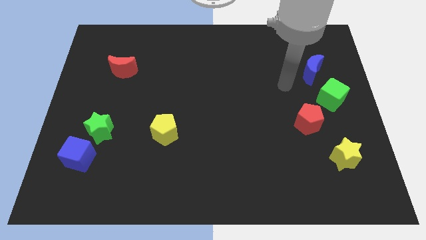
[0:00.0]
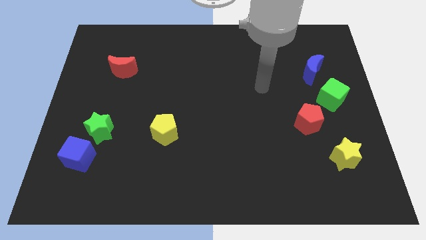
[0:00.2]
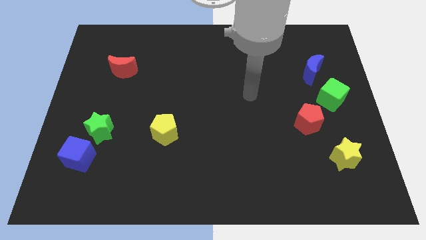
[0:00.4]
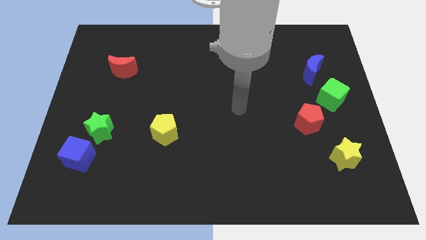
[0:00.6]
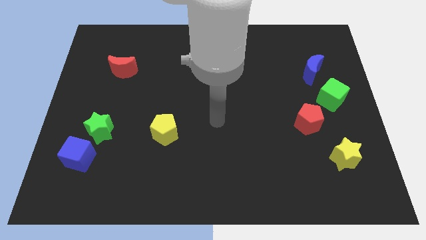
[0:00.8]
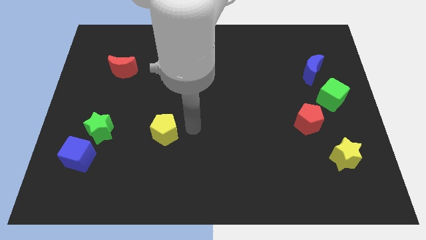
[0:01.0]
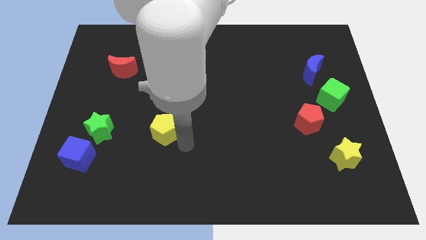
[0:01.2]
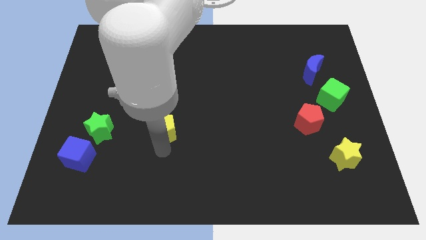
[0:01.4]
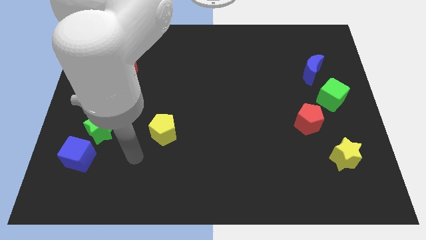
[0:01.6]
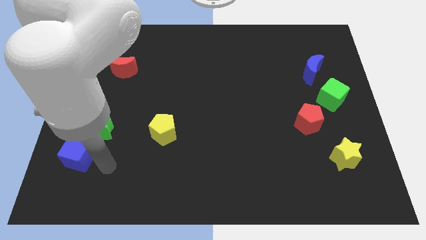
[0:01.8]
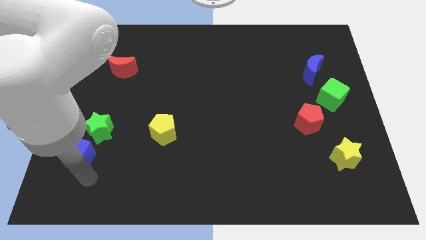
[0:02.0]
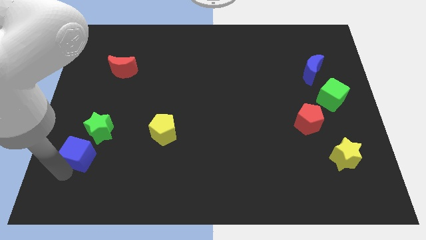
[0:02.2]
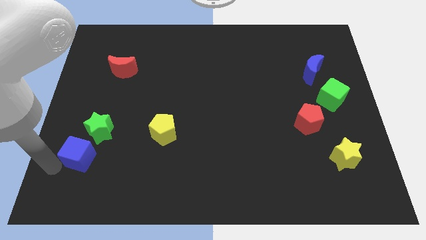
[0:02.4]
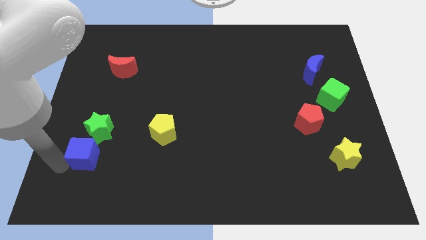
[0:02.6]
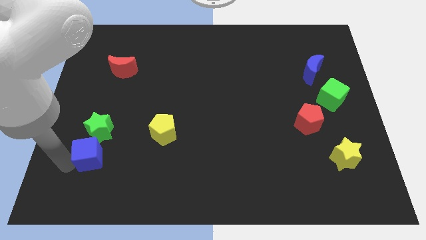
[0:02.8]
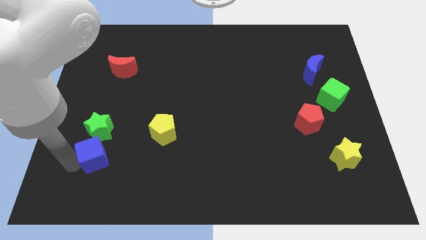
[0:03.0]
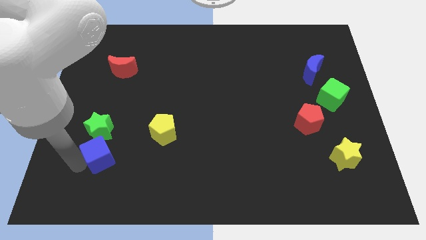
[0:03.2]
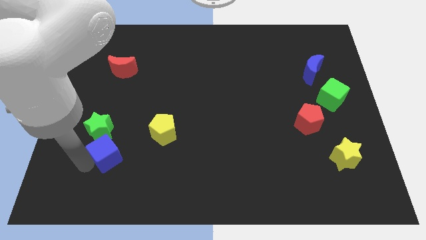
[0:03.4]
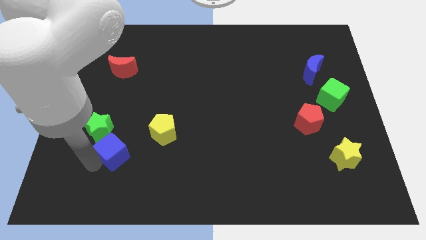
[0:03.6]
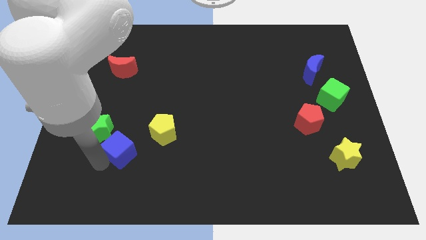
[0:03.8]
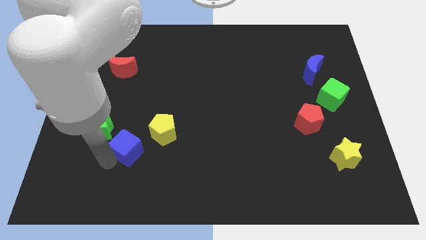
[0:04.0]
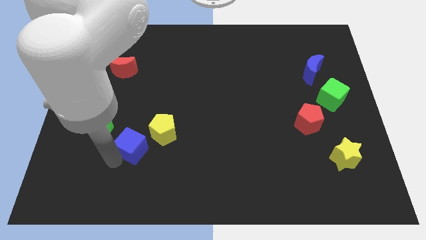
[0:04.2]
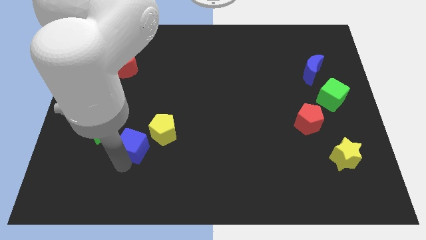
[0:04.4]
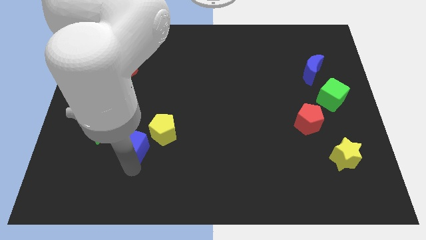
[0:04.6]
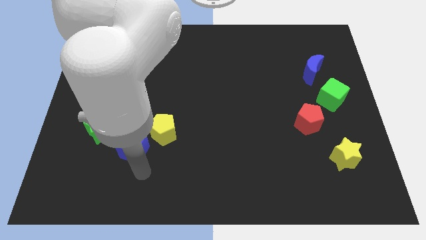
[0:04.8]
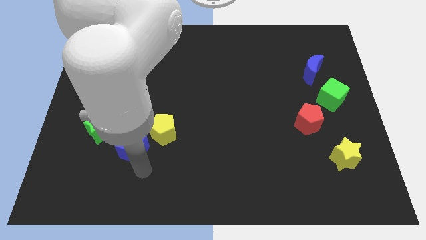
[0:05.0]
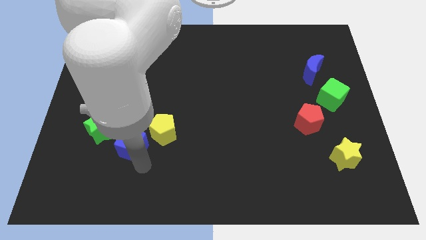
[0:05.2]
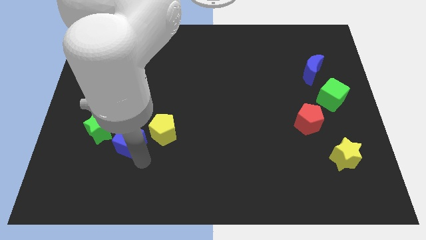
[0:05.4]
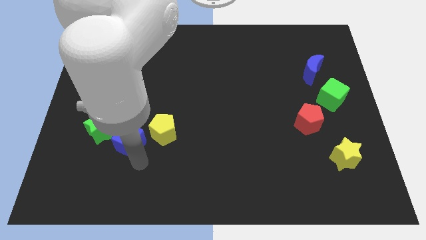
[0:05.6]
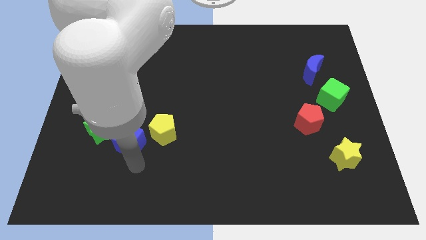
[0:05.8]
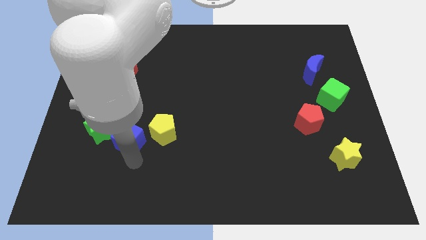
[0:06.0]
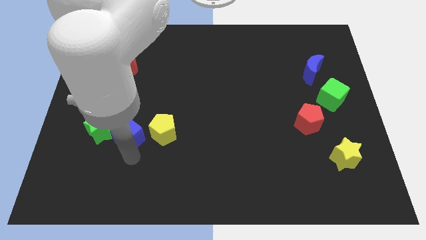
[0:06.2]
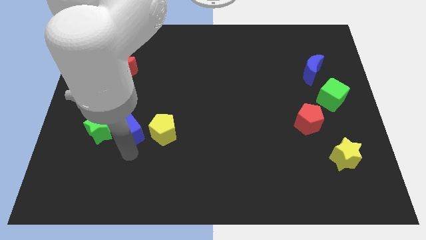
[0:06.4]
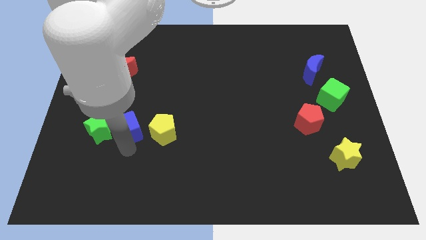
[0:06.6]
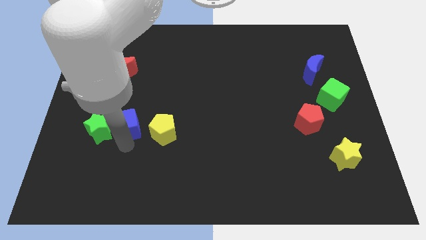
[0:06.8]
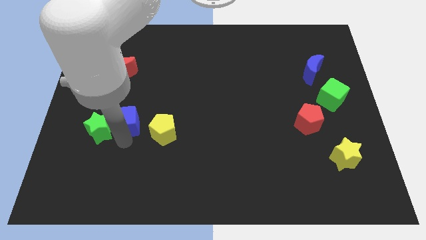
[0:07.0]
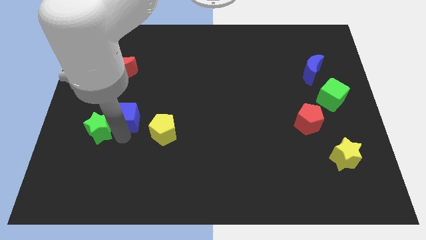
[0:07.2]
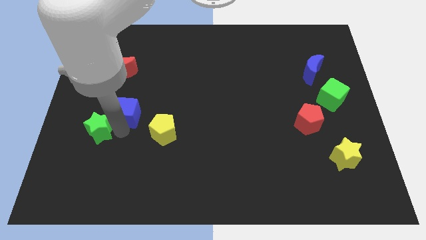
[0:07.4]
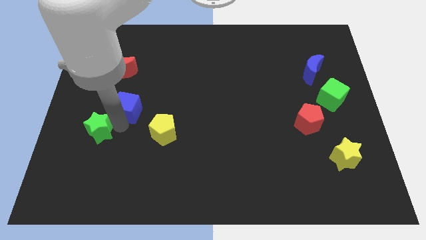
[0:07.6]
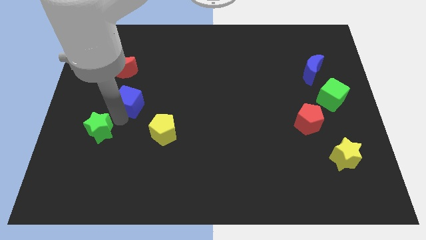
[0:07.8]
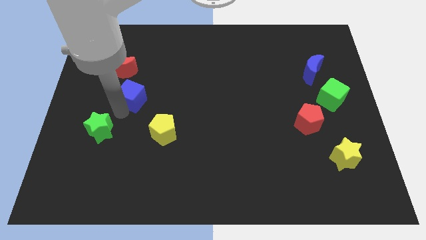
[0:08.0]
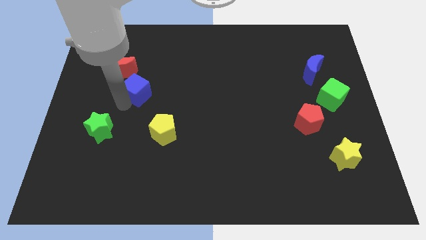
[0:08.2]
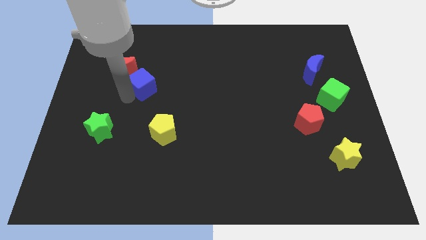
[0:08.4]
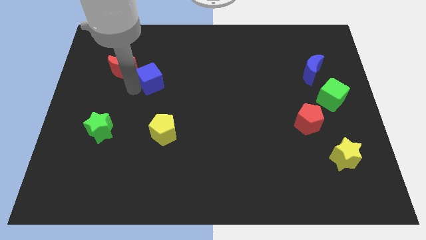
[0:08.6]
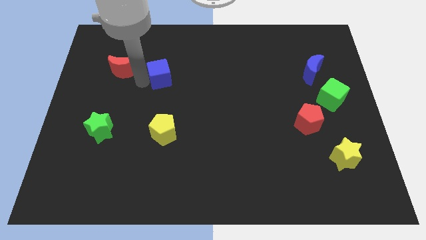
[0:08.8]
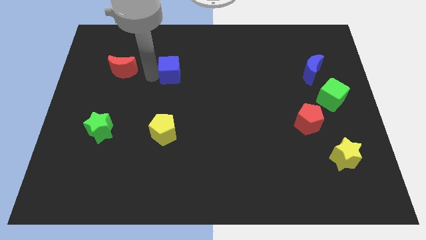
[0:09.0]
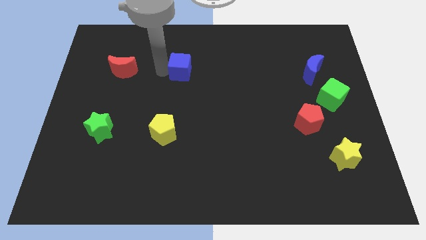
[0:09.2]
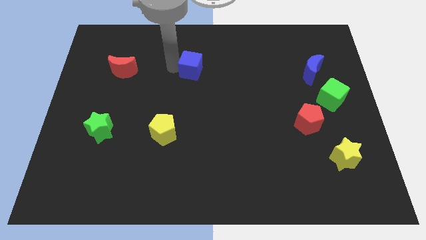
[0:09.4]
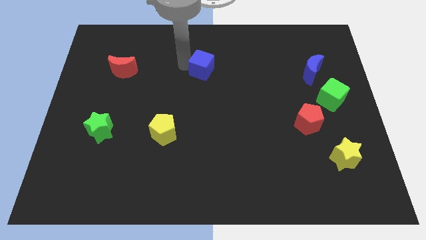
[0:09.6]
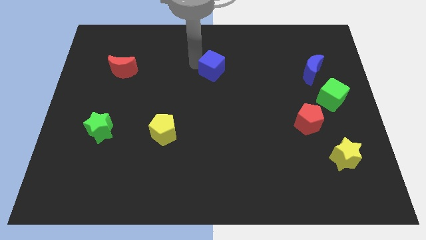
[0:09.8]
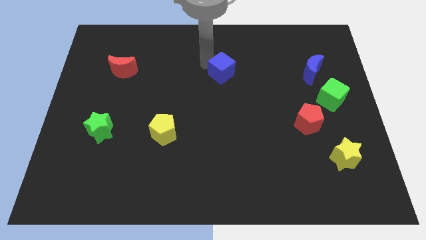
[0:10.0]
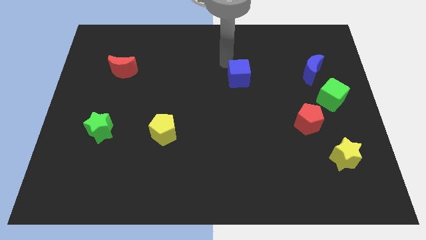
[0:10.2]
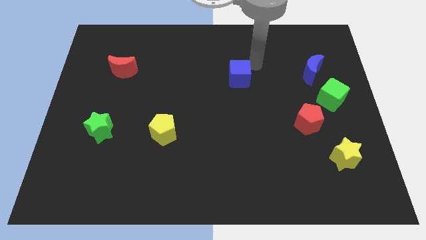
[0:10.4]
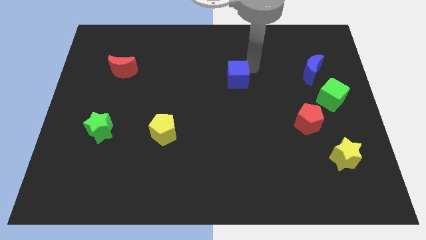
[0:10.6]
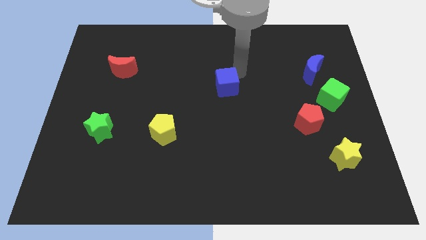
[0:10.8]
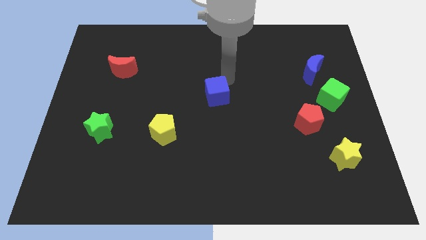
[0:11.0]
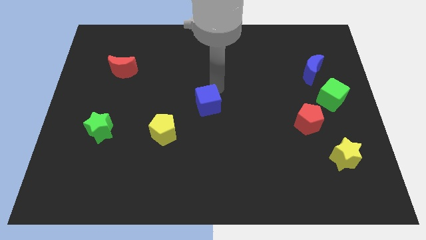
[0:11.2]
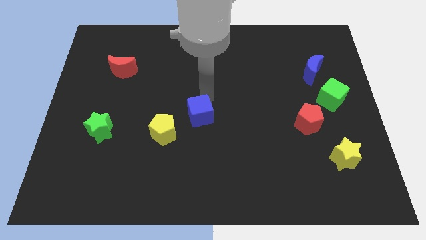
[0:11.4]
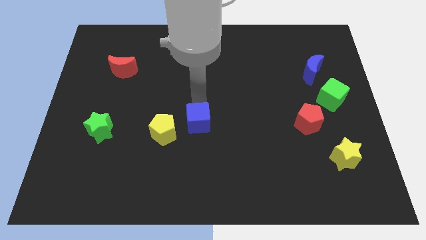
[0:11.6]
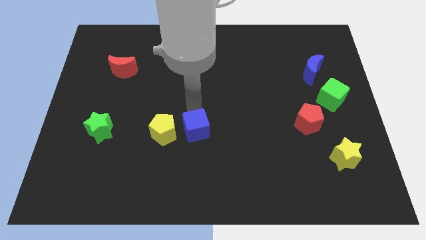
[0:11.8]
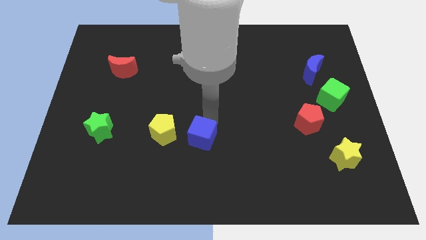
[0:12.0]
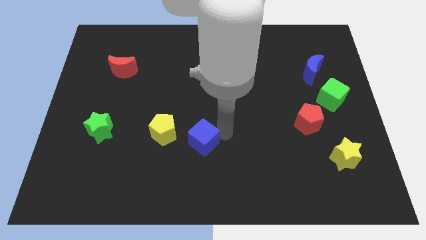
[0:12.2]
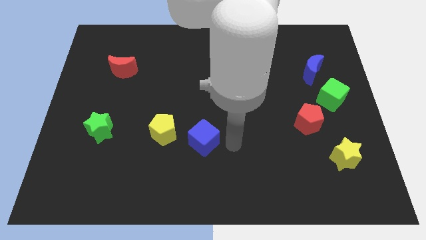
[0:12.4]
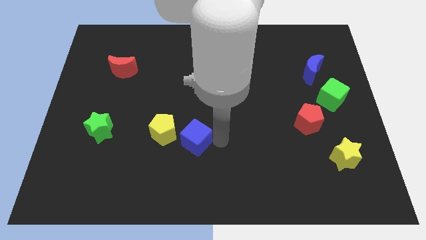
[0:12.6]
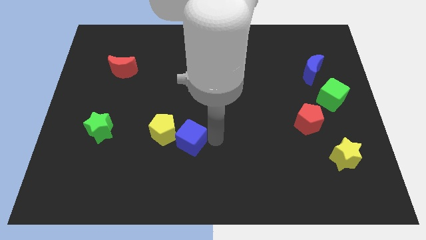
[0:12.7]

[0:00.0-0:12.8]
push the blue cube to the yellow pentagon
